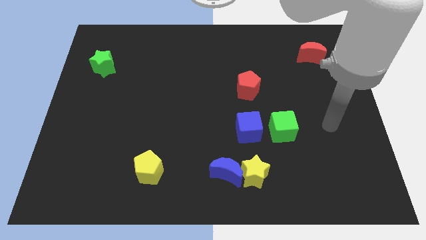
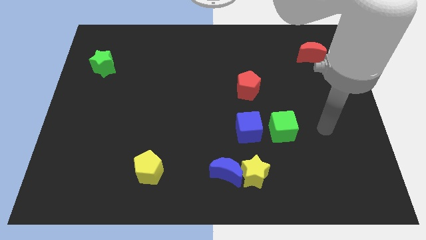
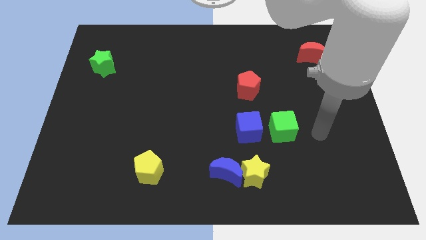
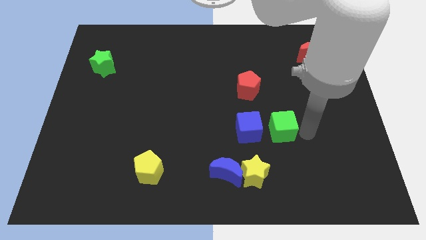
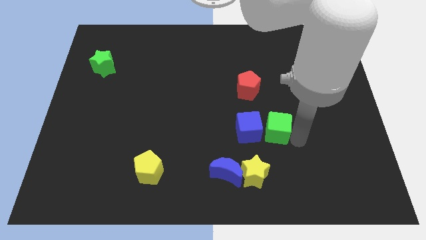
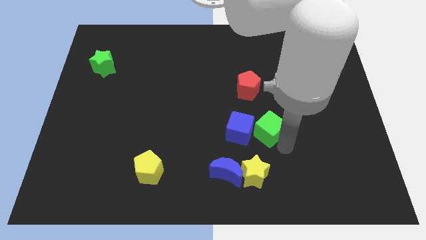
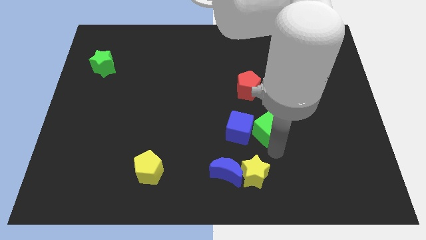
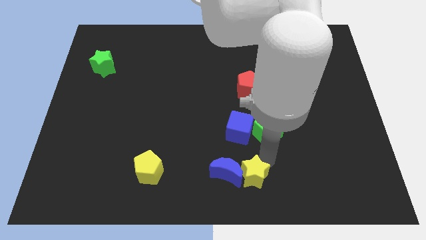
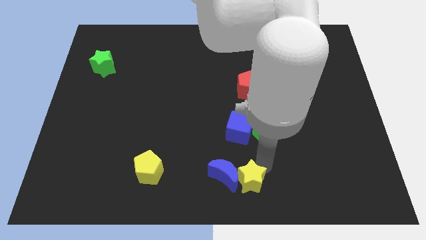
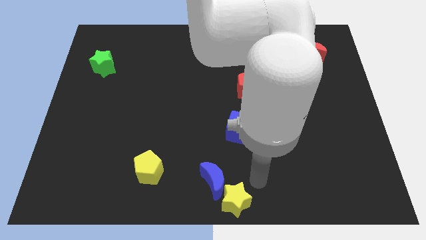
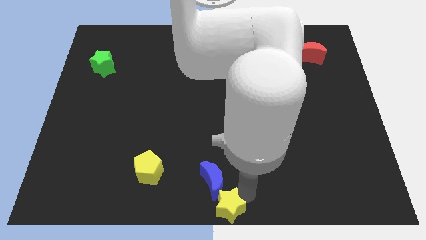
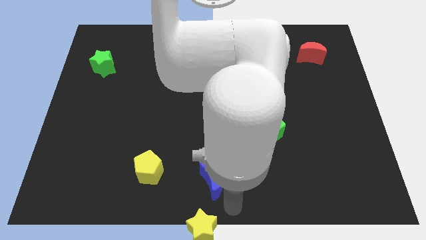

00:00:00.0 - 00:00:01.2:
separate the blue moon from the yellow star

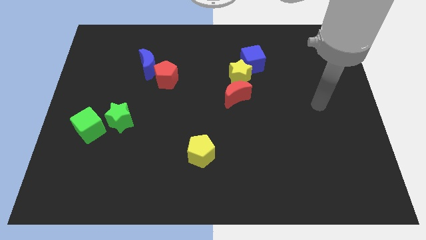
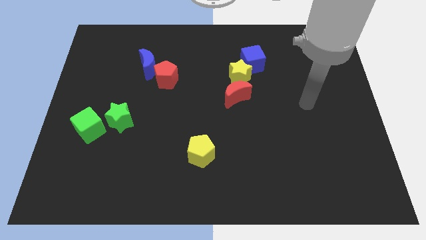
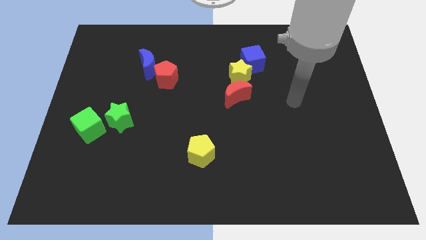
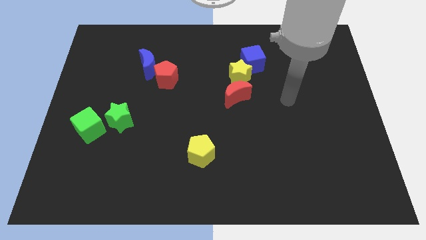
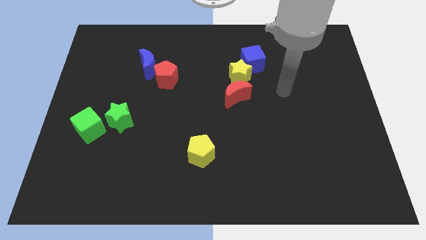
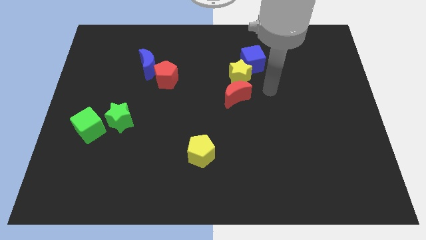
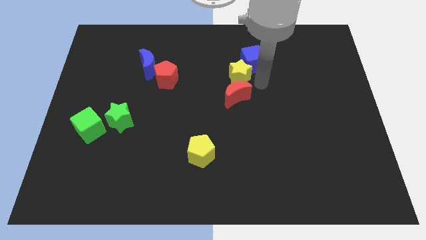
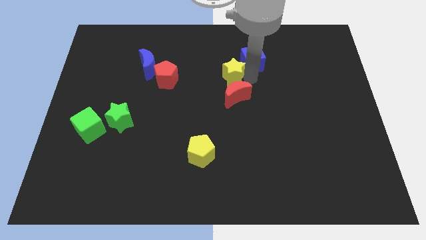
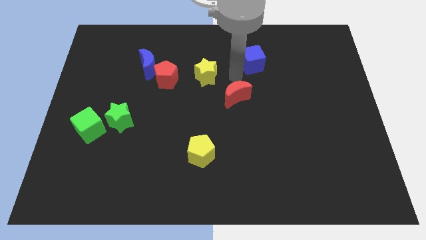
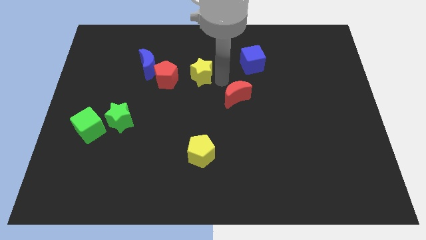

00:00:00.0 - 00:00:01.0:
pull the red moon apart from the yellow star

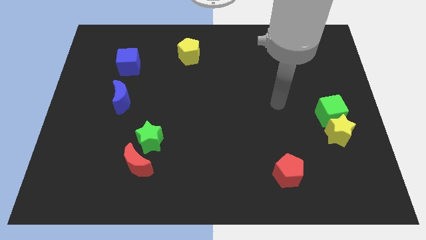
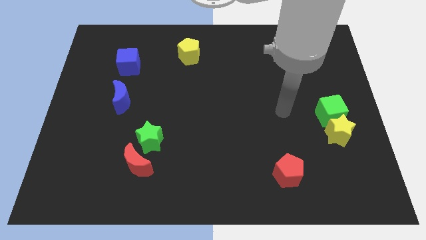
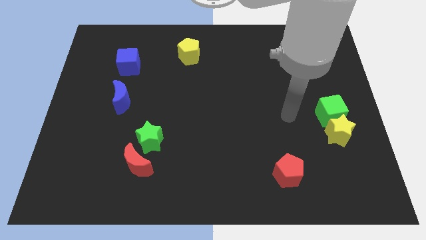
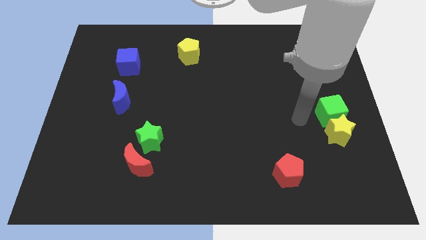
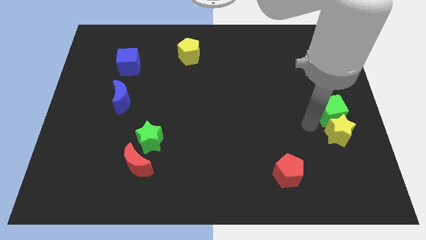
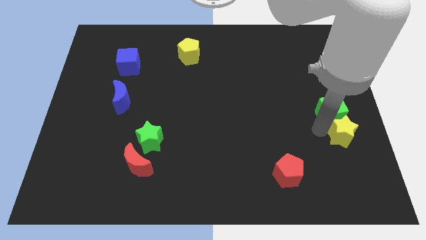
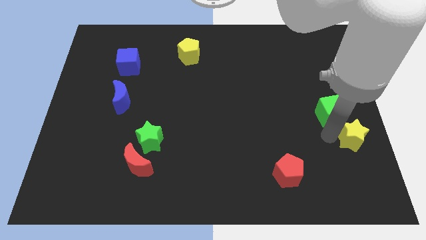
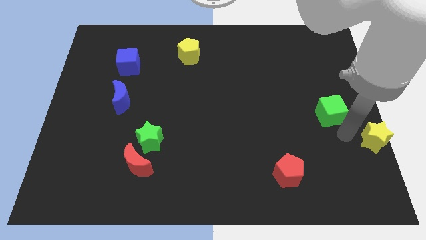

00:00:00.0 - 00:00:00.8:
move the green cube away from the yellow star

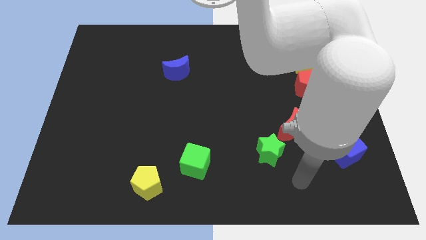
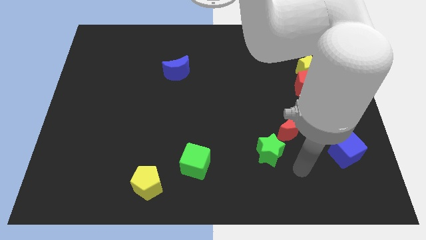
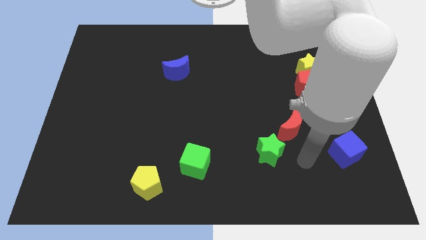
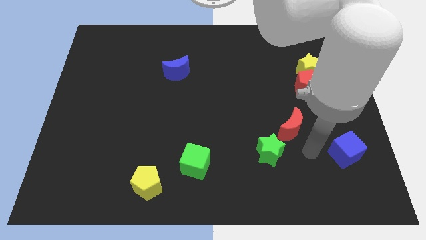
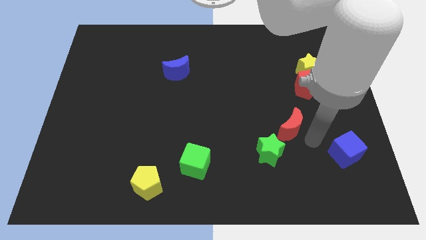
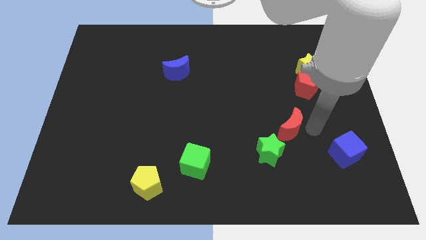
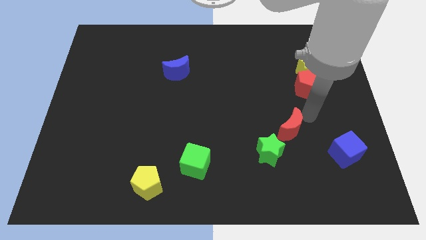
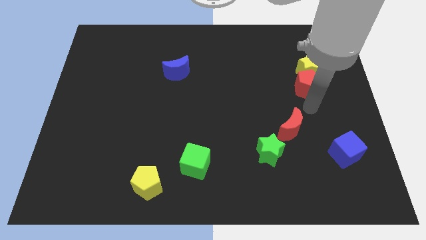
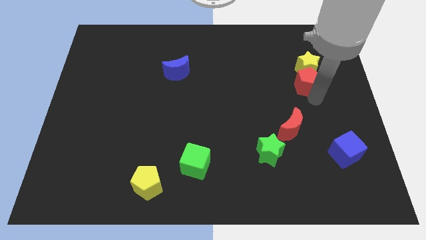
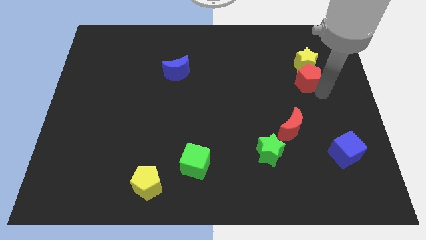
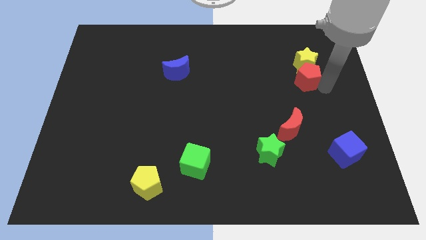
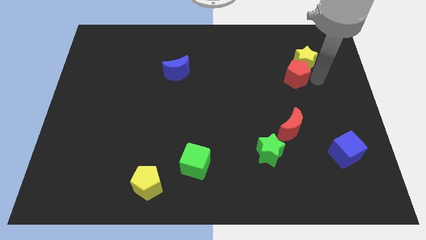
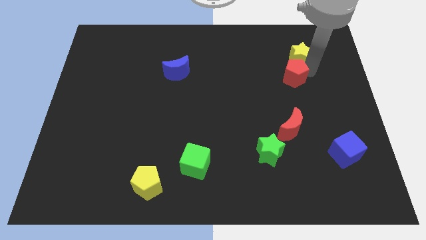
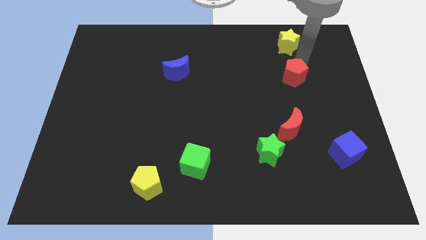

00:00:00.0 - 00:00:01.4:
separate the red pentagon from the yellow star

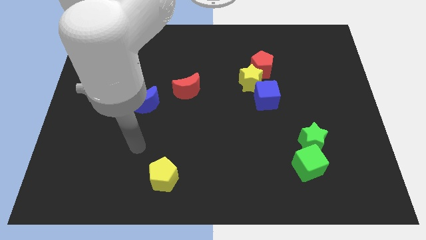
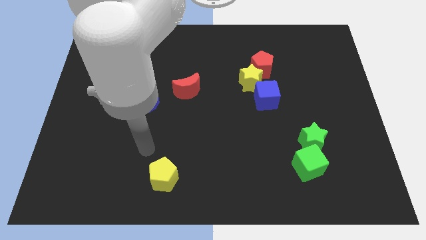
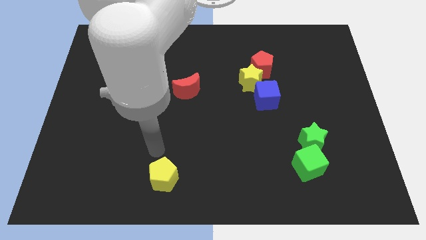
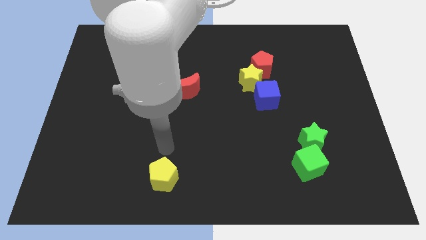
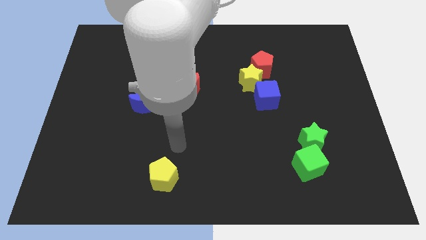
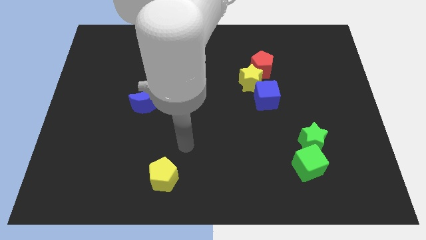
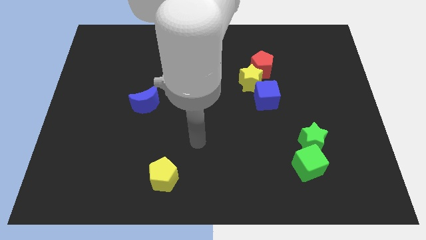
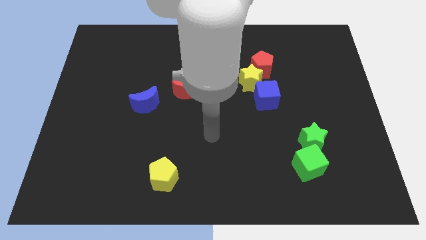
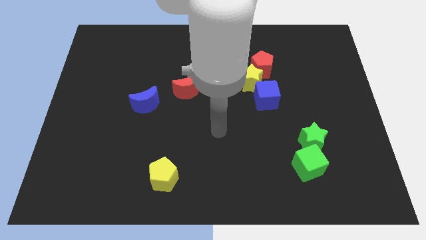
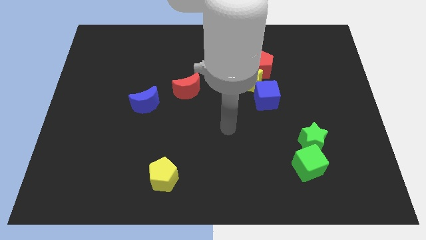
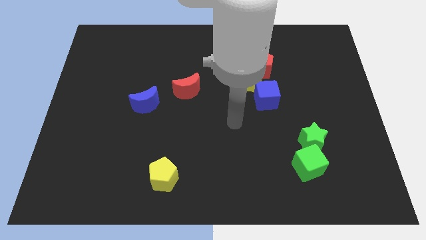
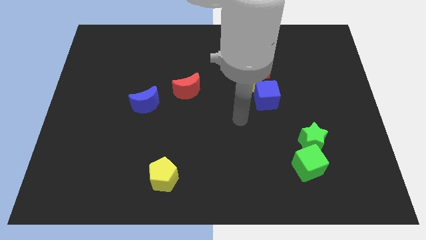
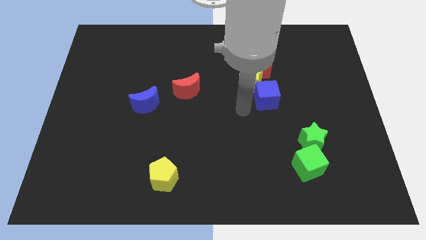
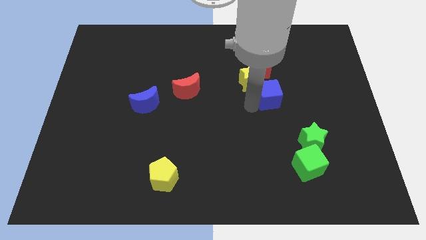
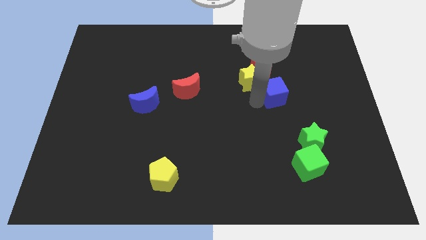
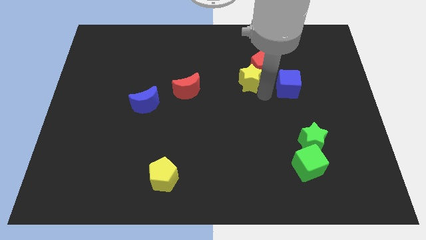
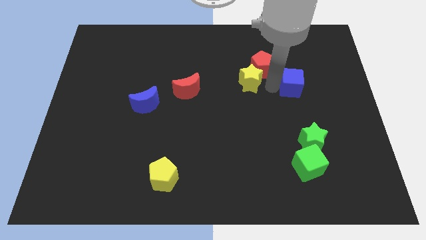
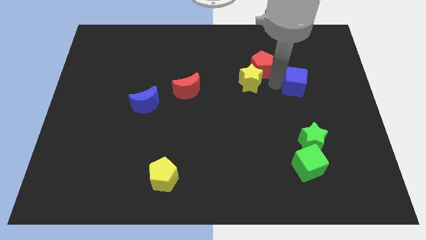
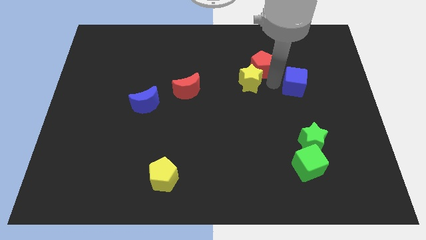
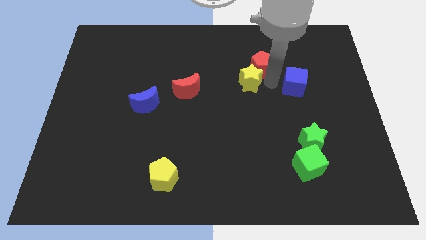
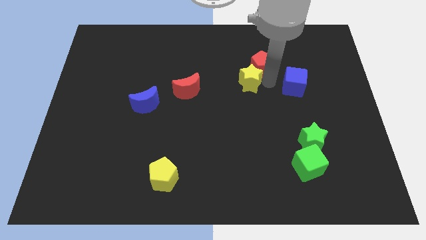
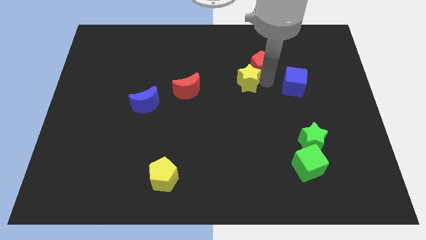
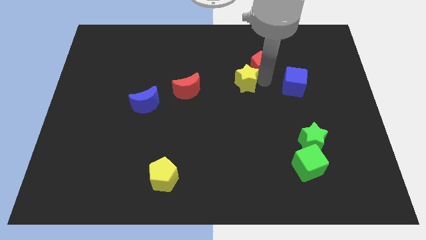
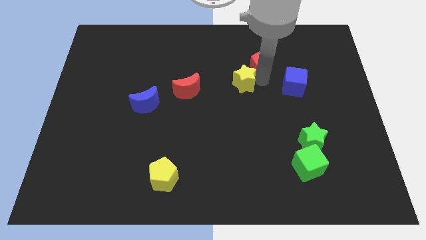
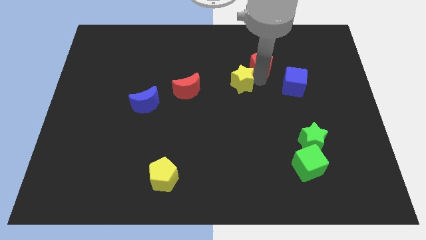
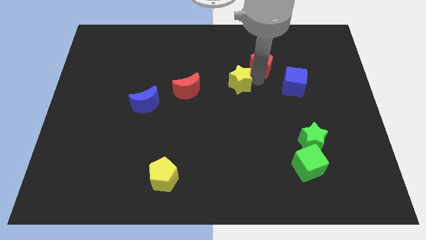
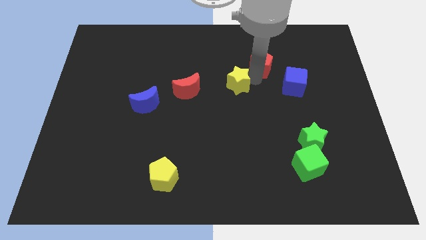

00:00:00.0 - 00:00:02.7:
separate the yellow star from the red pentagon and blue cube

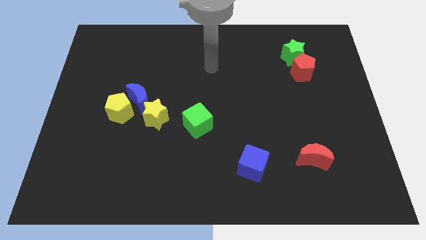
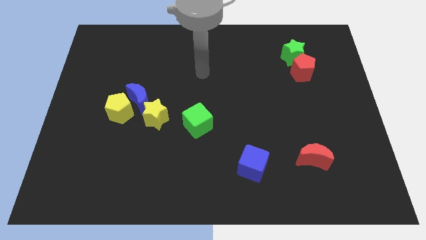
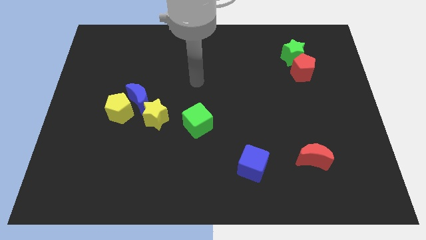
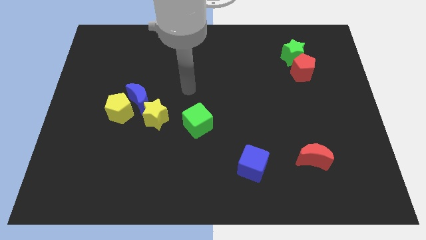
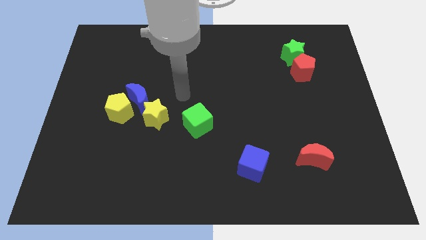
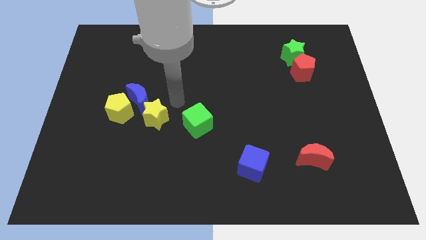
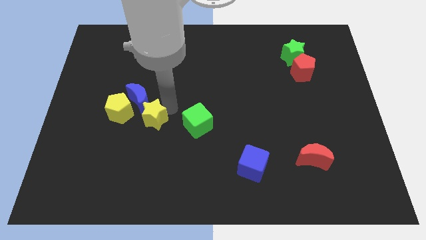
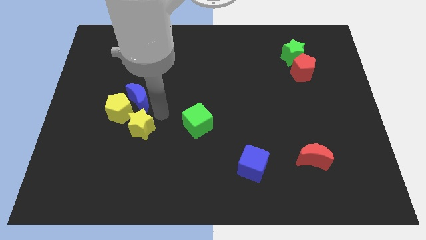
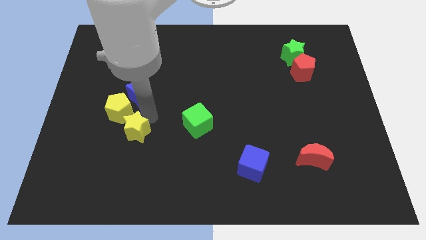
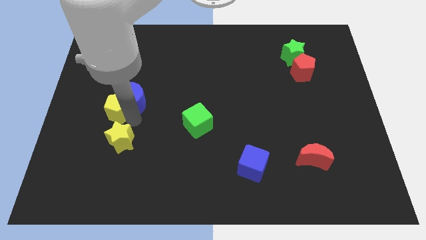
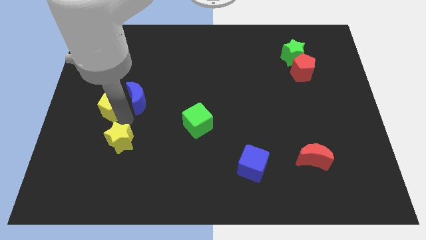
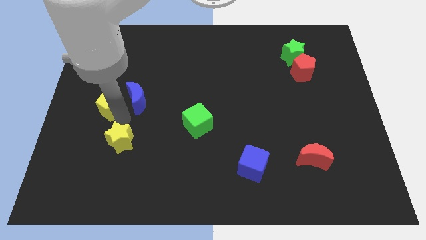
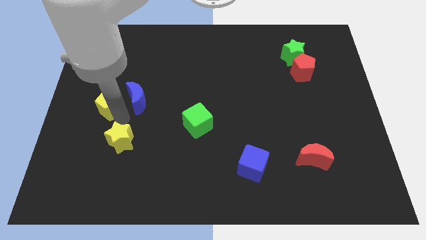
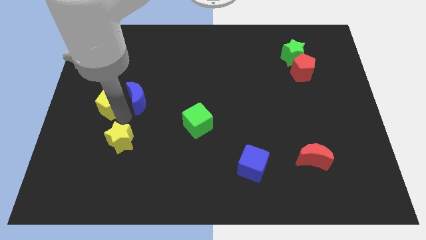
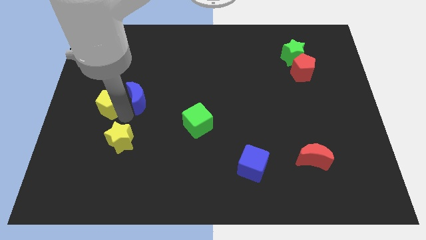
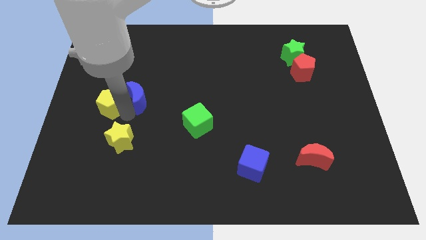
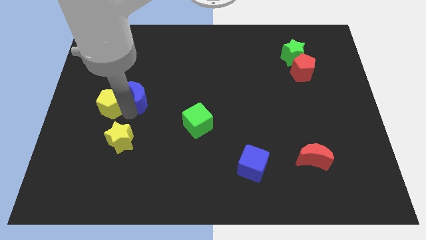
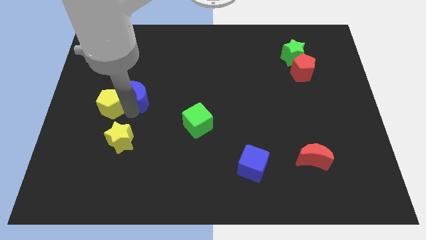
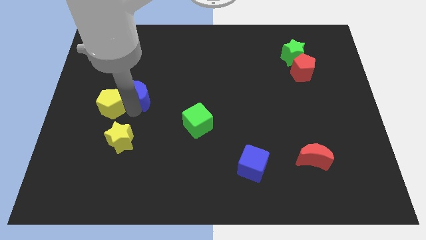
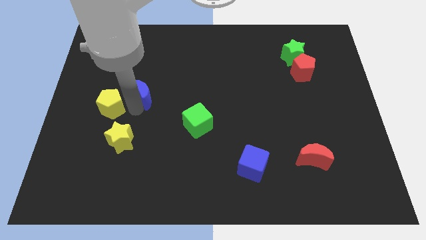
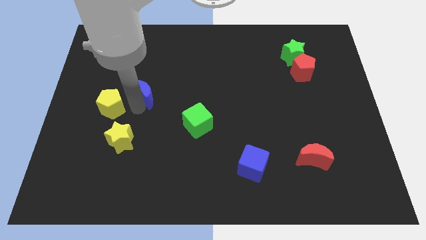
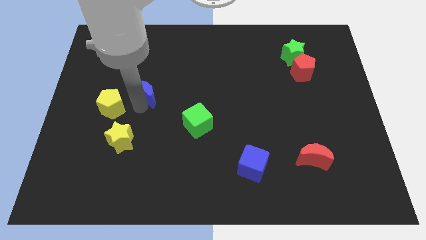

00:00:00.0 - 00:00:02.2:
pull the blue moon apart from the yellow pentagon and yellow star
